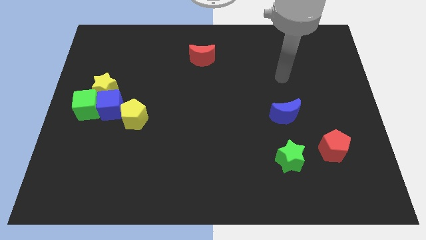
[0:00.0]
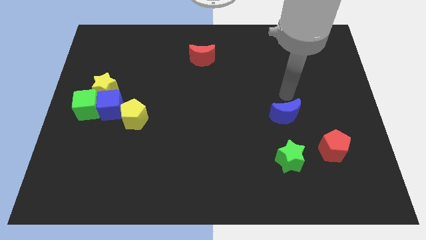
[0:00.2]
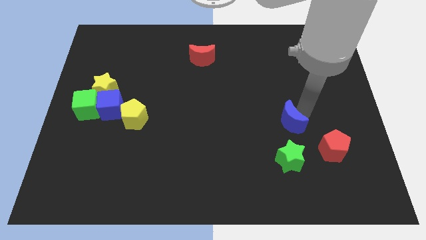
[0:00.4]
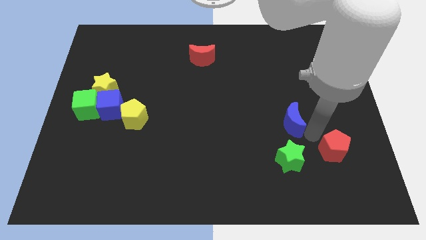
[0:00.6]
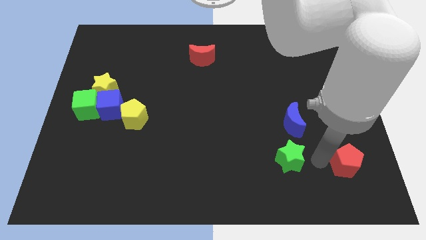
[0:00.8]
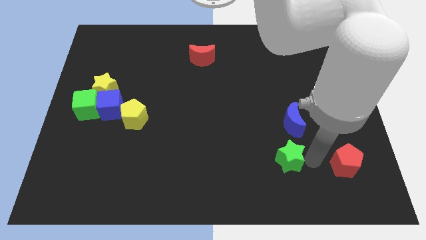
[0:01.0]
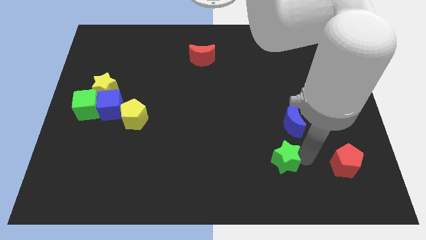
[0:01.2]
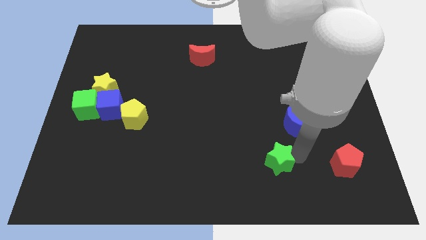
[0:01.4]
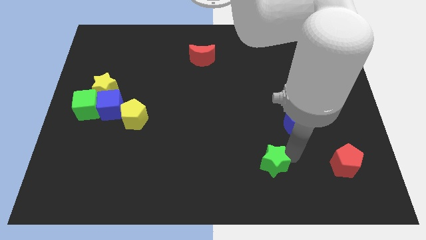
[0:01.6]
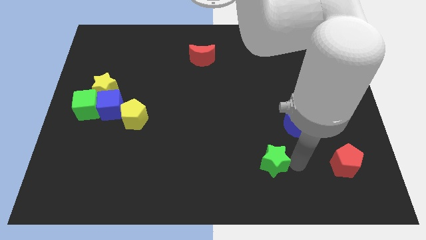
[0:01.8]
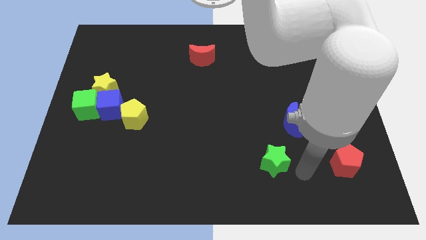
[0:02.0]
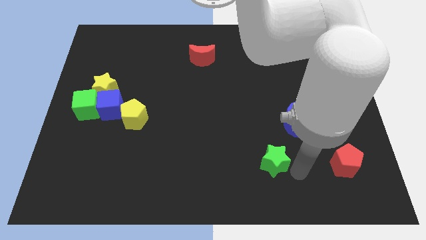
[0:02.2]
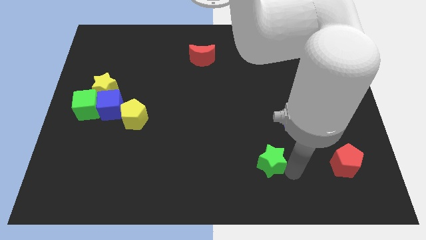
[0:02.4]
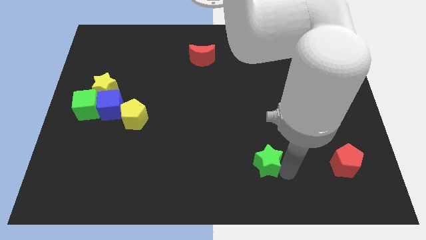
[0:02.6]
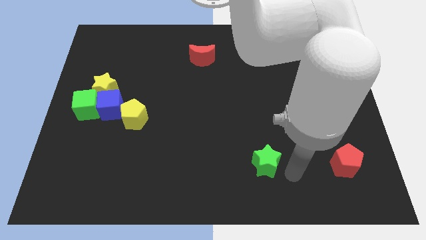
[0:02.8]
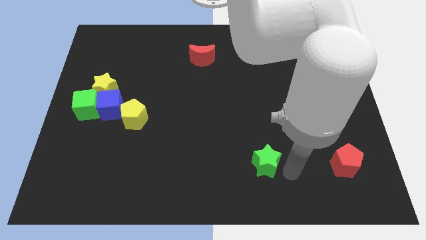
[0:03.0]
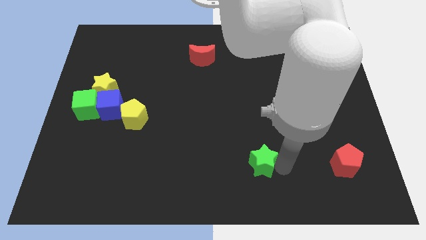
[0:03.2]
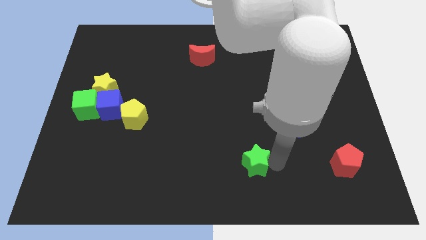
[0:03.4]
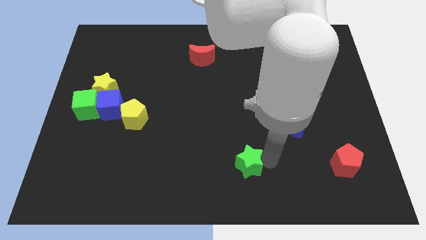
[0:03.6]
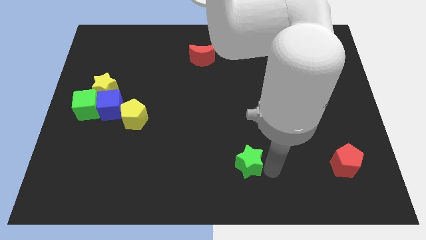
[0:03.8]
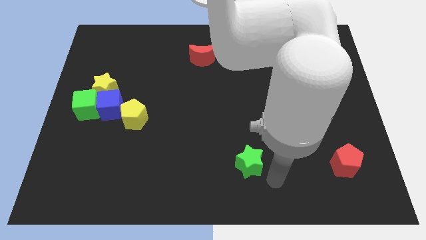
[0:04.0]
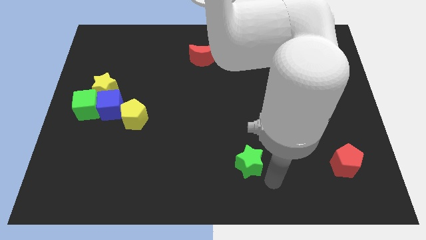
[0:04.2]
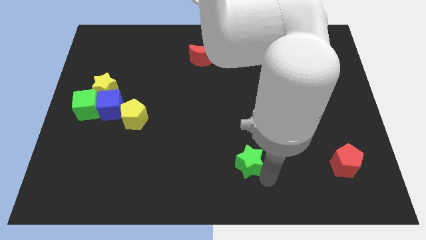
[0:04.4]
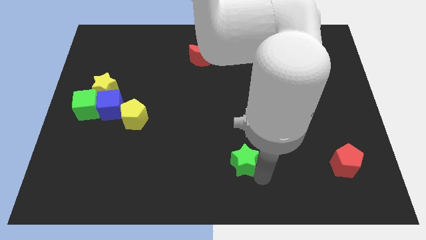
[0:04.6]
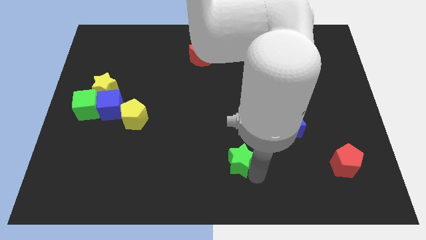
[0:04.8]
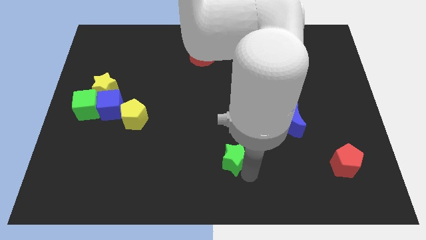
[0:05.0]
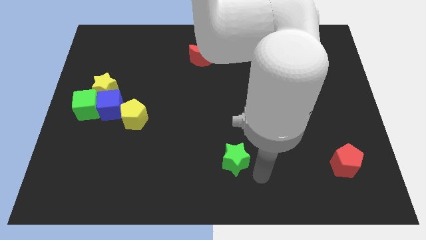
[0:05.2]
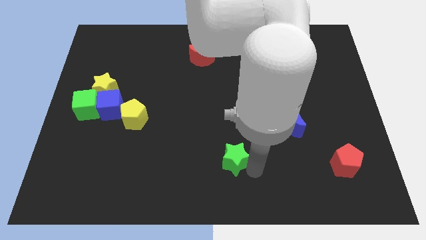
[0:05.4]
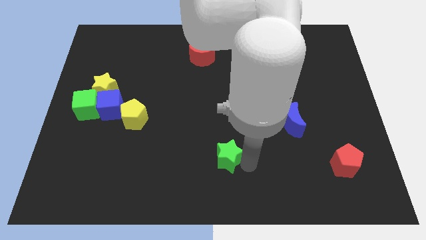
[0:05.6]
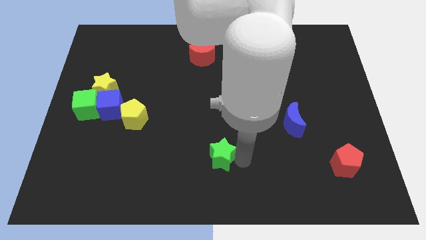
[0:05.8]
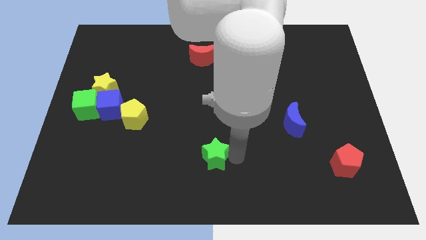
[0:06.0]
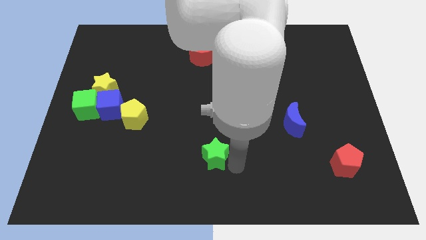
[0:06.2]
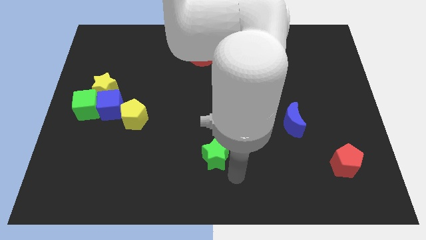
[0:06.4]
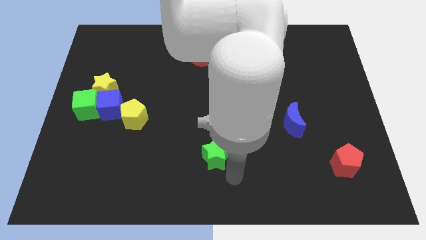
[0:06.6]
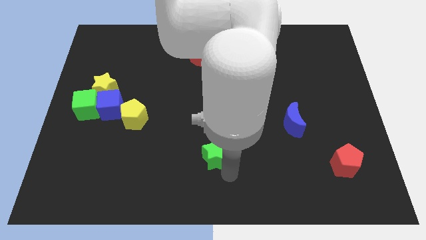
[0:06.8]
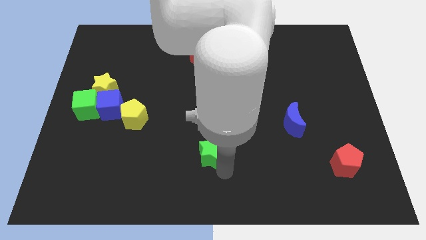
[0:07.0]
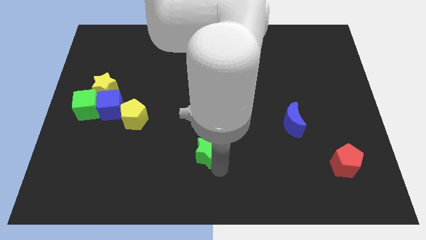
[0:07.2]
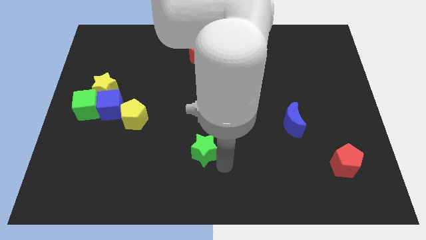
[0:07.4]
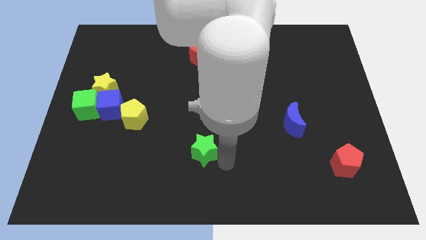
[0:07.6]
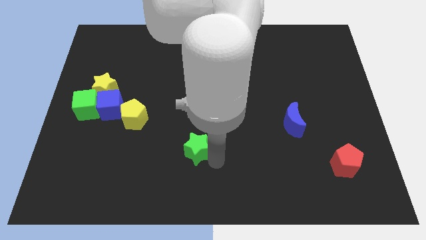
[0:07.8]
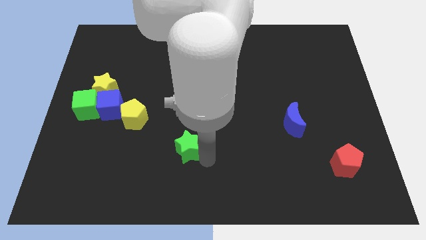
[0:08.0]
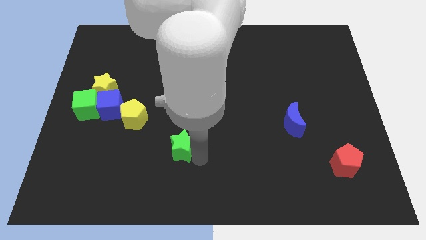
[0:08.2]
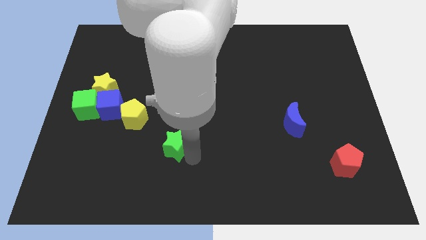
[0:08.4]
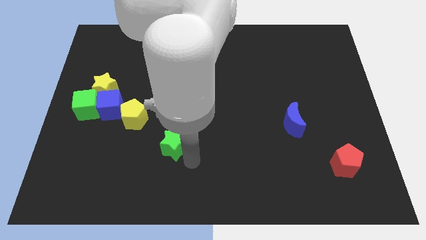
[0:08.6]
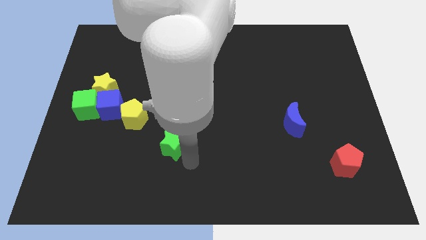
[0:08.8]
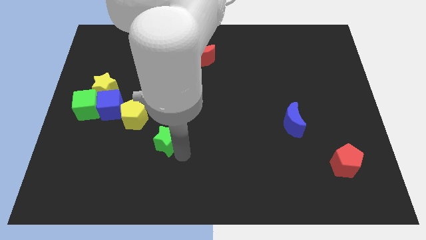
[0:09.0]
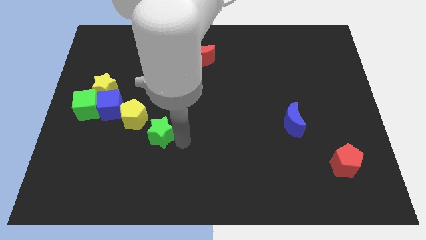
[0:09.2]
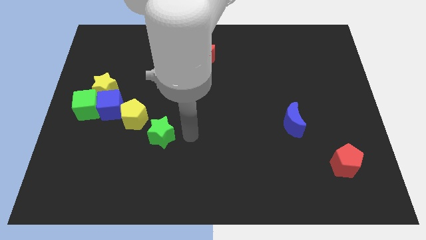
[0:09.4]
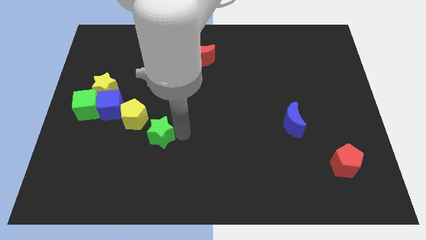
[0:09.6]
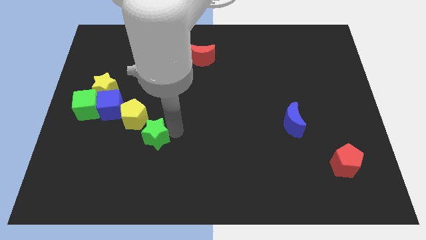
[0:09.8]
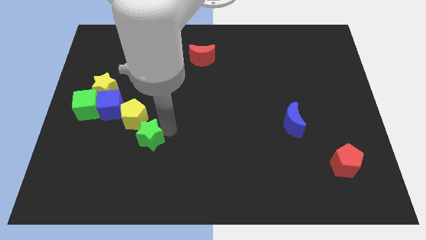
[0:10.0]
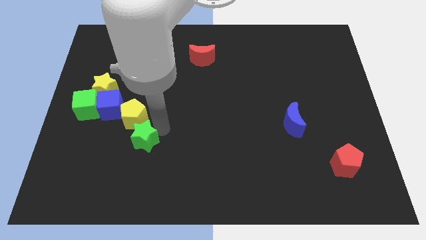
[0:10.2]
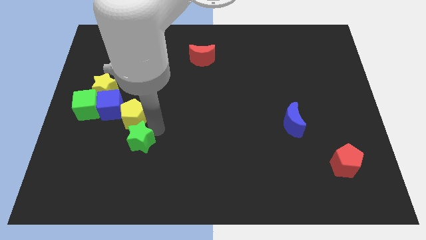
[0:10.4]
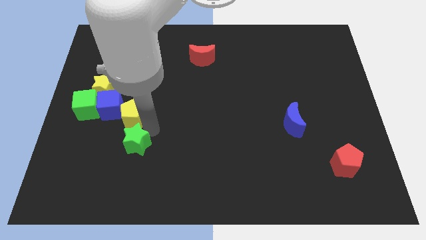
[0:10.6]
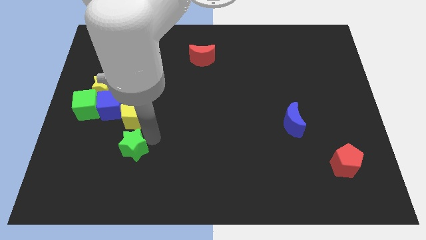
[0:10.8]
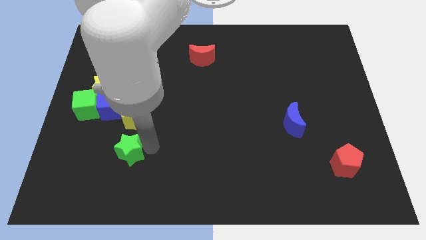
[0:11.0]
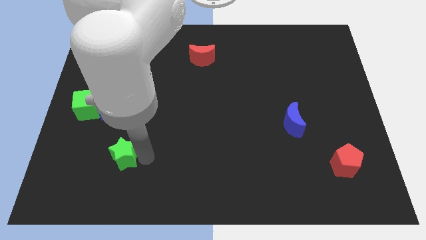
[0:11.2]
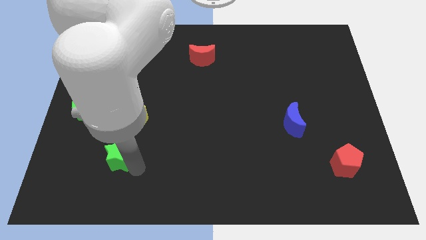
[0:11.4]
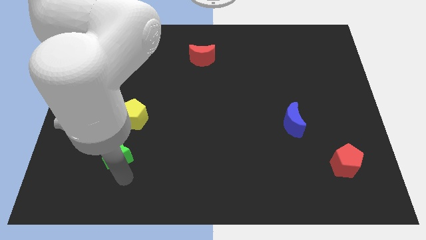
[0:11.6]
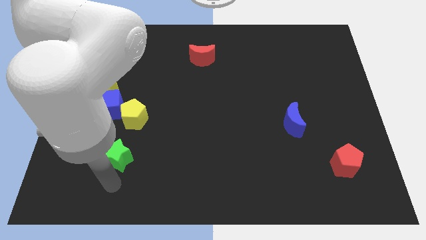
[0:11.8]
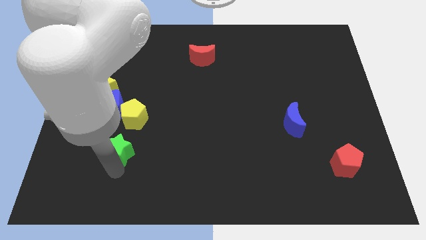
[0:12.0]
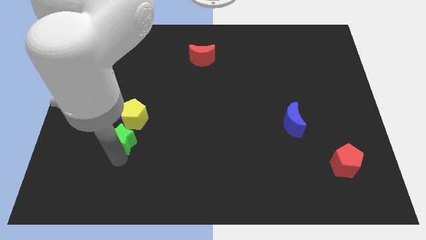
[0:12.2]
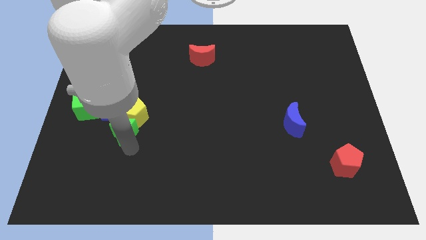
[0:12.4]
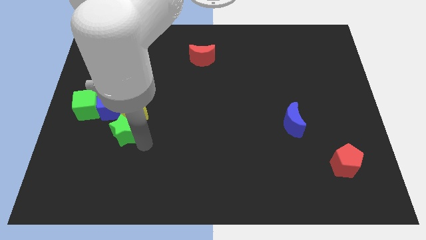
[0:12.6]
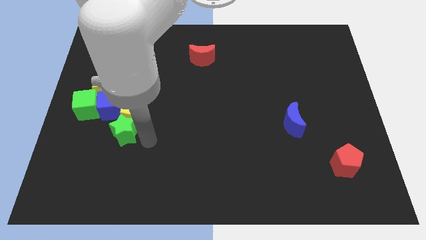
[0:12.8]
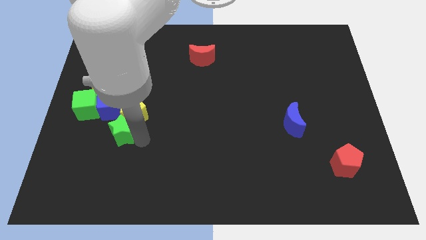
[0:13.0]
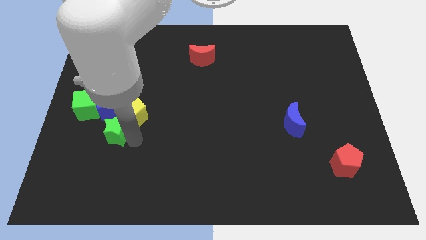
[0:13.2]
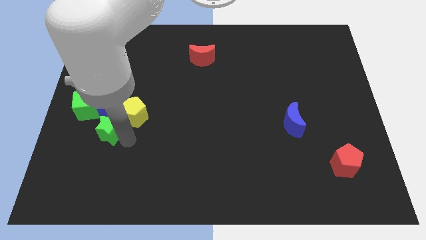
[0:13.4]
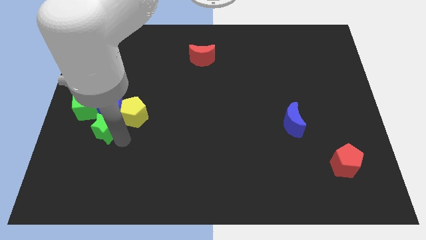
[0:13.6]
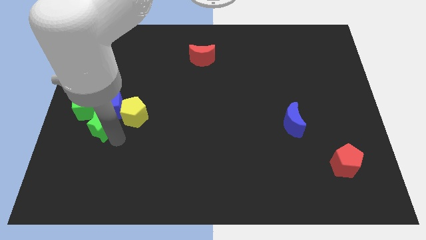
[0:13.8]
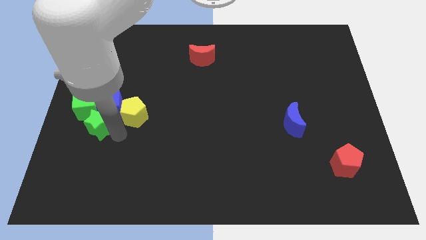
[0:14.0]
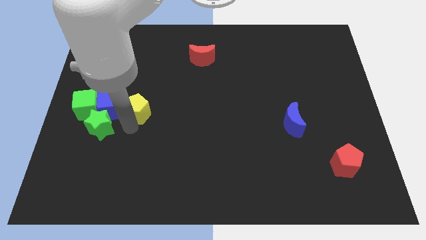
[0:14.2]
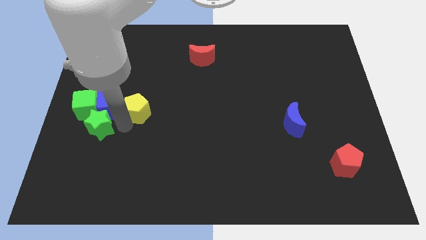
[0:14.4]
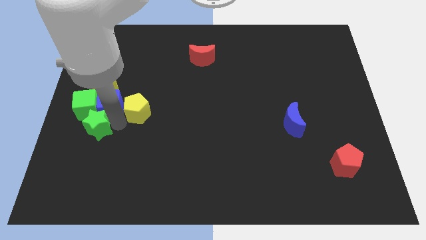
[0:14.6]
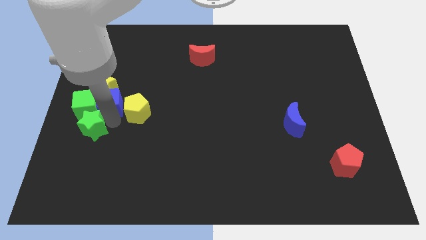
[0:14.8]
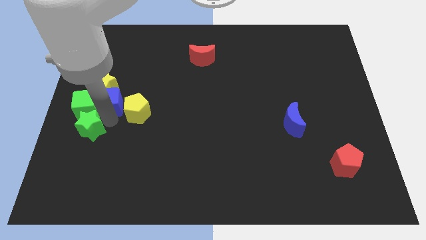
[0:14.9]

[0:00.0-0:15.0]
put the green star to the left side

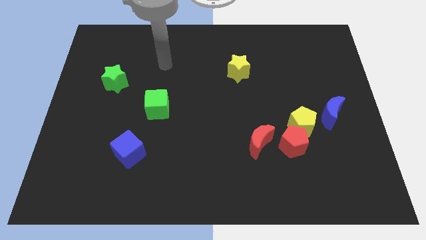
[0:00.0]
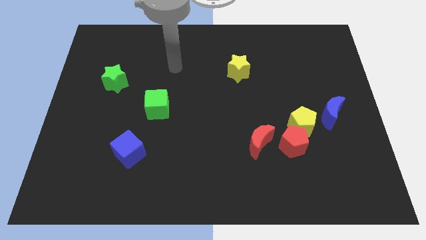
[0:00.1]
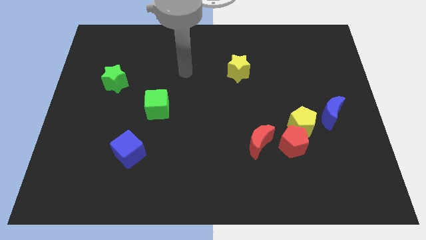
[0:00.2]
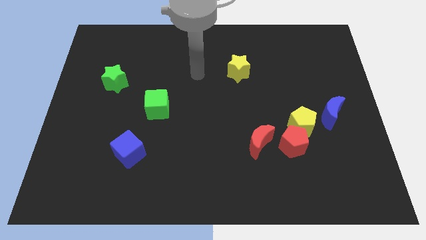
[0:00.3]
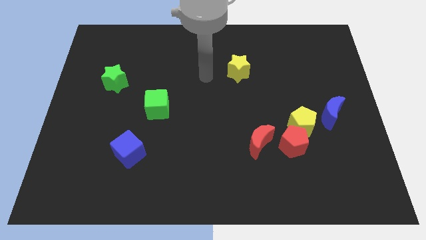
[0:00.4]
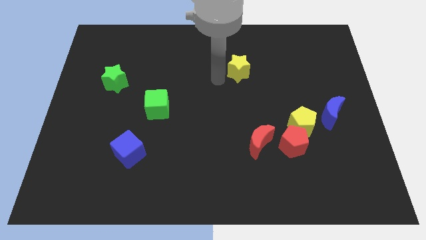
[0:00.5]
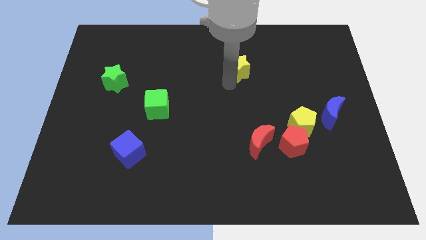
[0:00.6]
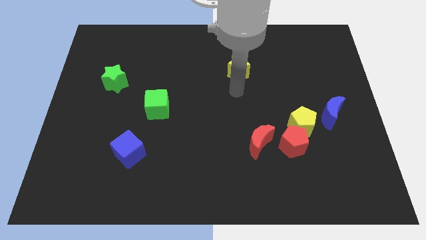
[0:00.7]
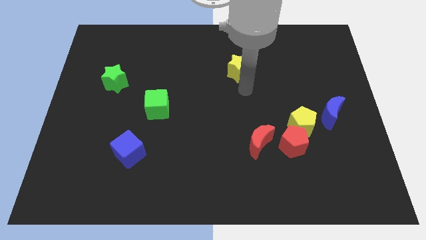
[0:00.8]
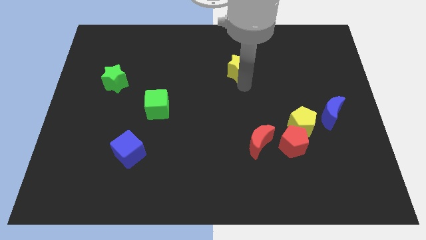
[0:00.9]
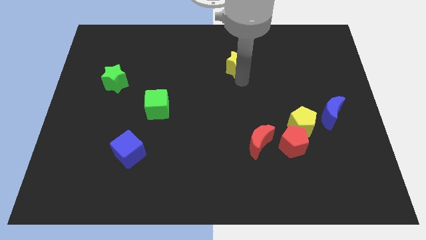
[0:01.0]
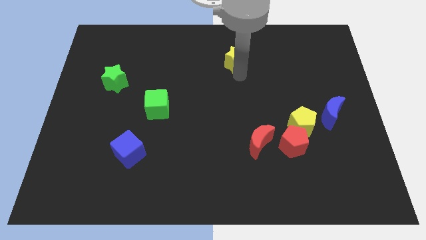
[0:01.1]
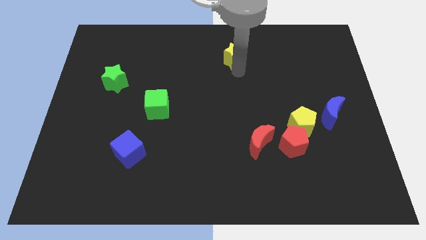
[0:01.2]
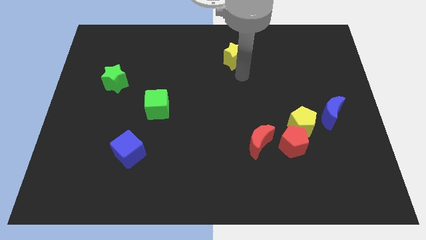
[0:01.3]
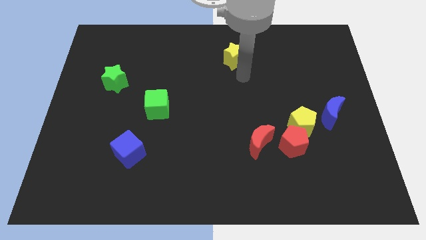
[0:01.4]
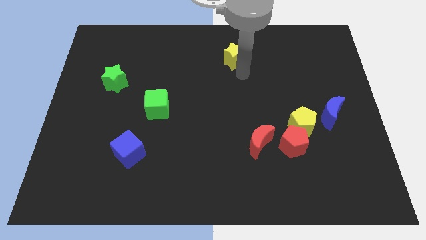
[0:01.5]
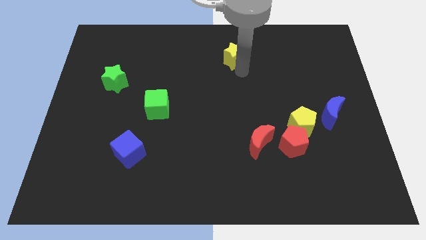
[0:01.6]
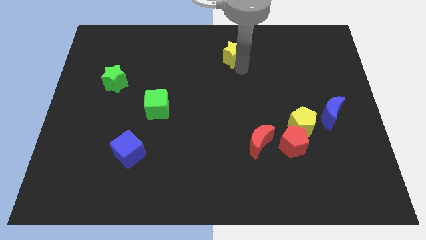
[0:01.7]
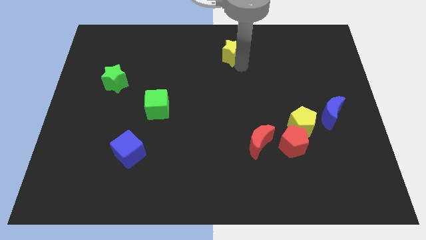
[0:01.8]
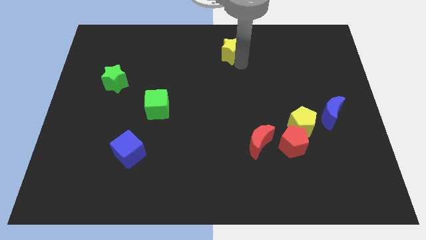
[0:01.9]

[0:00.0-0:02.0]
slide the yellow star to the top side
